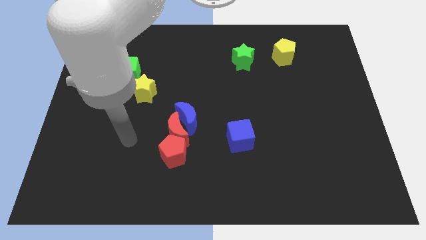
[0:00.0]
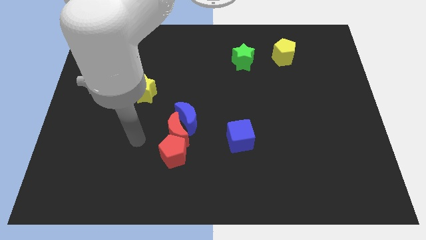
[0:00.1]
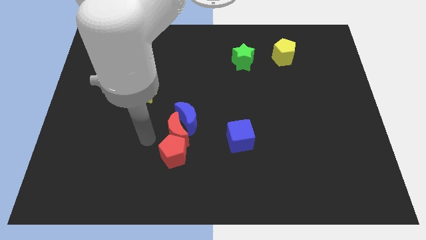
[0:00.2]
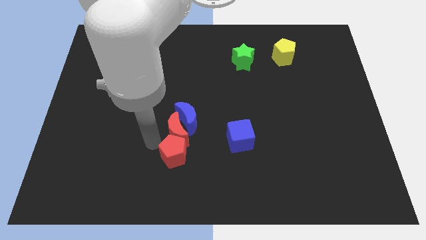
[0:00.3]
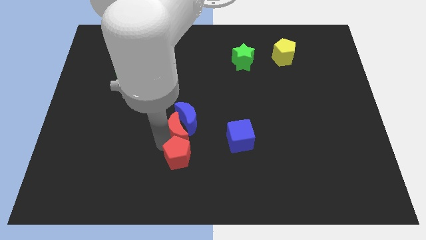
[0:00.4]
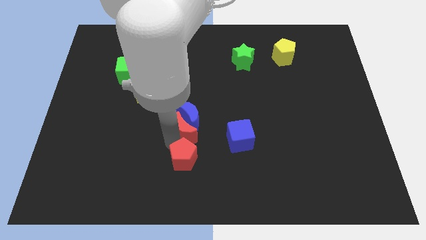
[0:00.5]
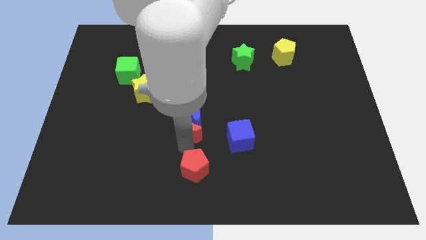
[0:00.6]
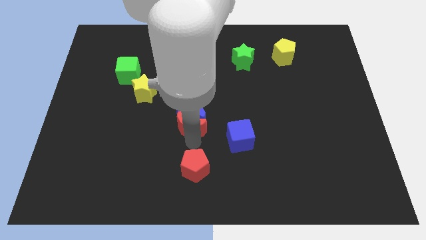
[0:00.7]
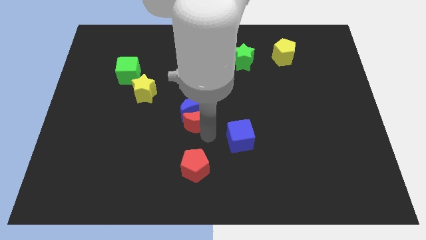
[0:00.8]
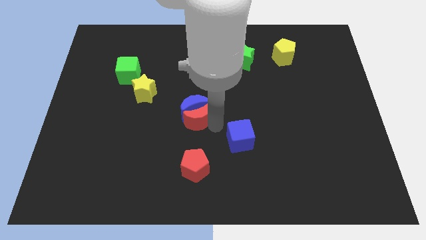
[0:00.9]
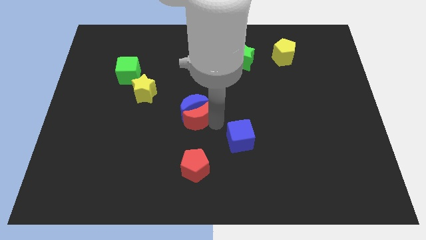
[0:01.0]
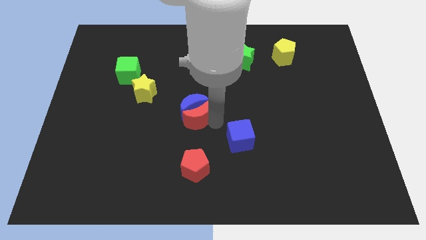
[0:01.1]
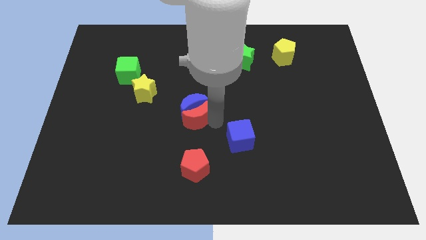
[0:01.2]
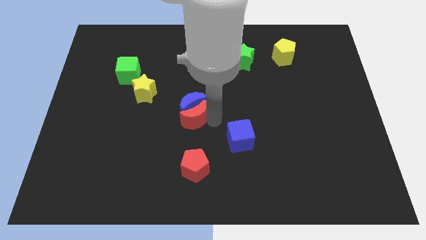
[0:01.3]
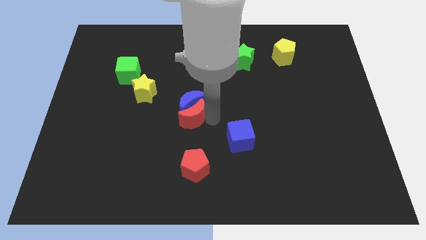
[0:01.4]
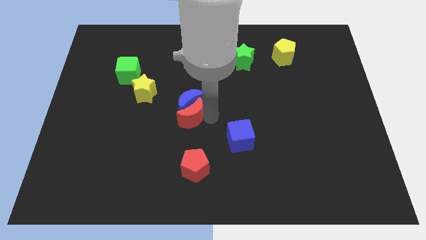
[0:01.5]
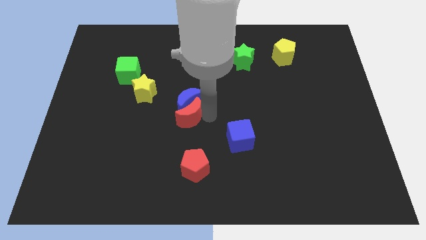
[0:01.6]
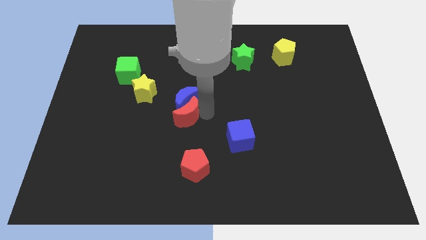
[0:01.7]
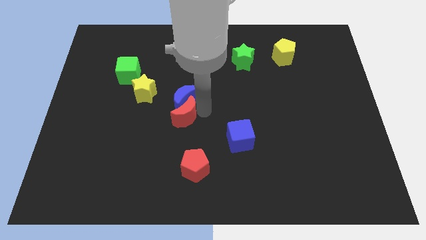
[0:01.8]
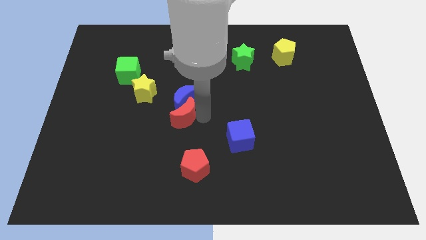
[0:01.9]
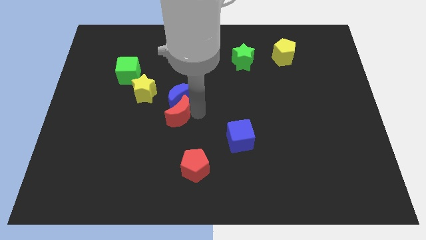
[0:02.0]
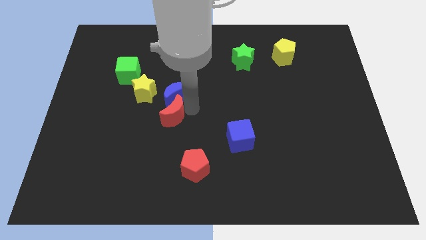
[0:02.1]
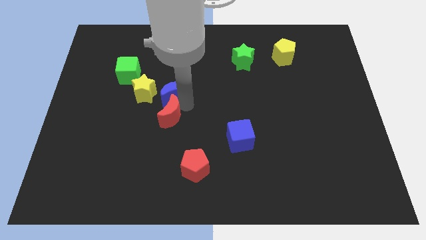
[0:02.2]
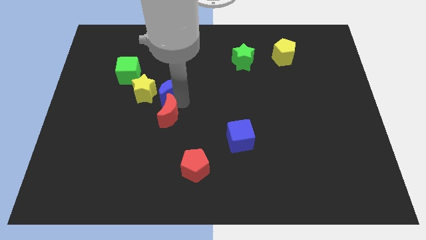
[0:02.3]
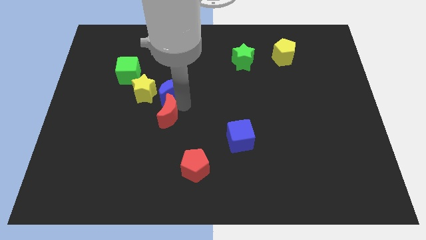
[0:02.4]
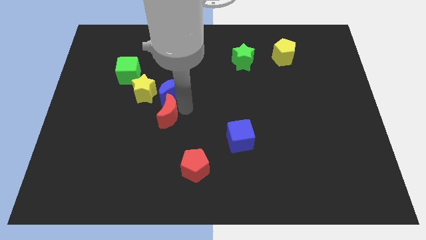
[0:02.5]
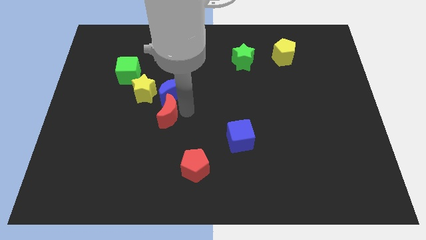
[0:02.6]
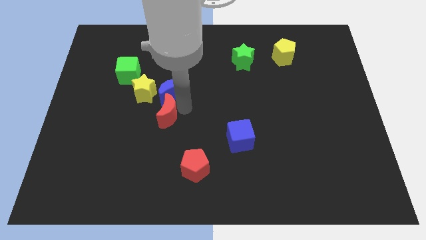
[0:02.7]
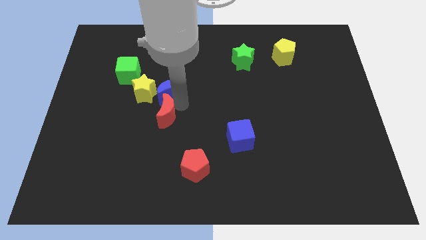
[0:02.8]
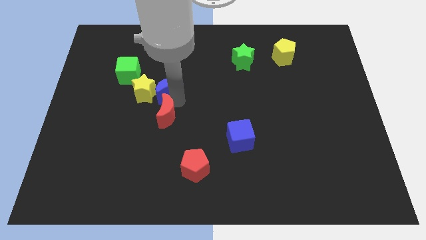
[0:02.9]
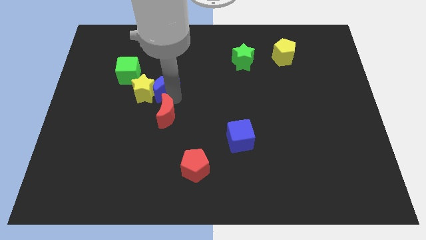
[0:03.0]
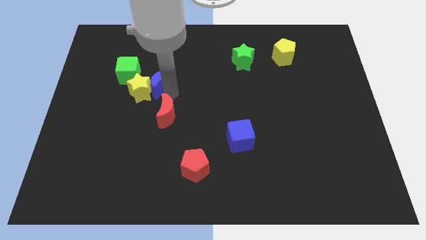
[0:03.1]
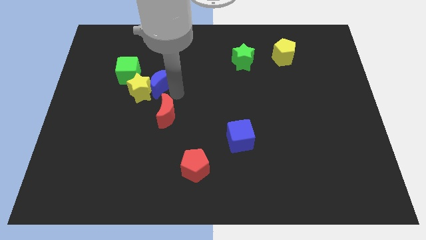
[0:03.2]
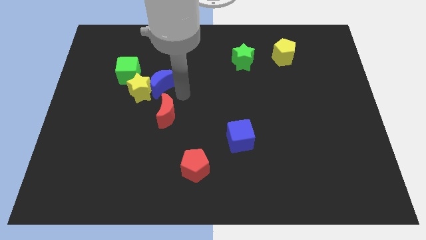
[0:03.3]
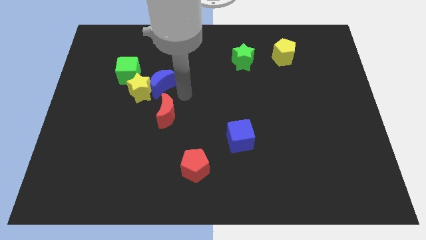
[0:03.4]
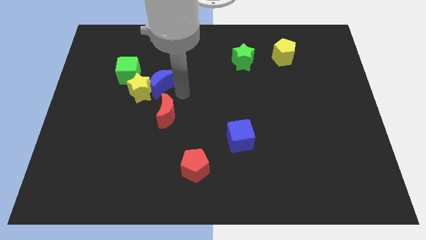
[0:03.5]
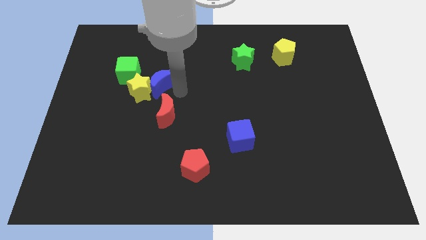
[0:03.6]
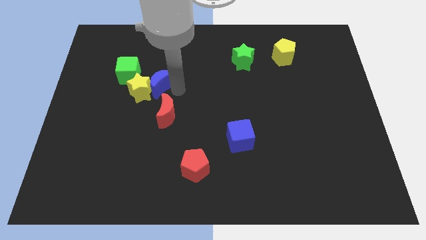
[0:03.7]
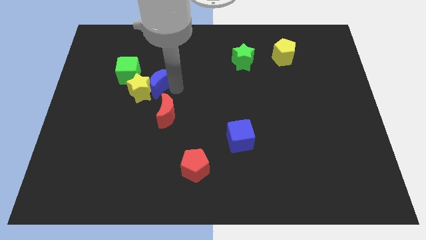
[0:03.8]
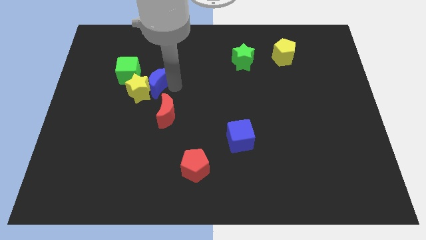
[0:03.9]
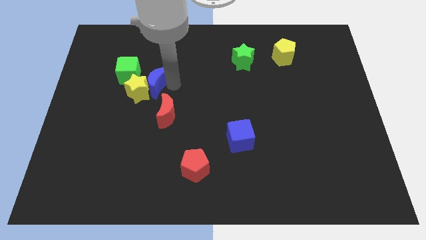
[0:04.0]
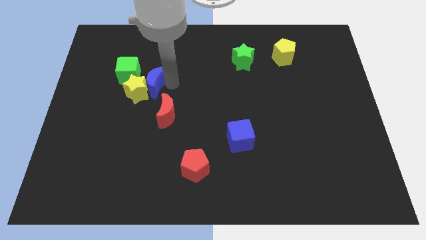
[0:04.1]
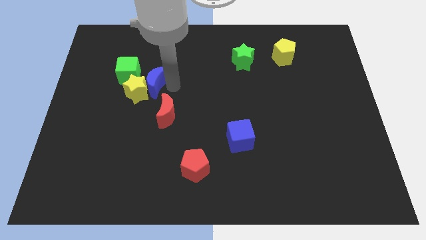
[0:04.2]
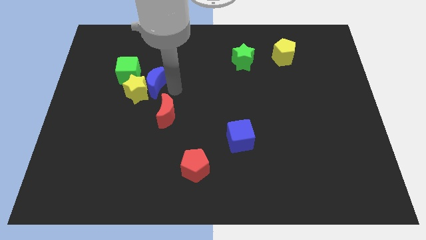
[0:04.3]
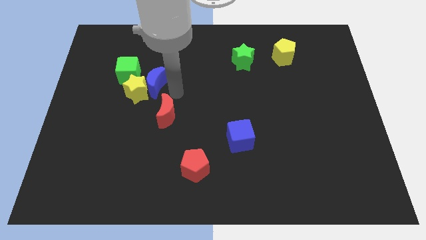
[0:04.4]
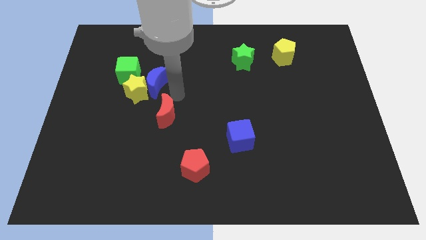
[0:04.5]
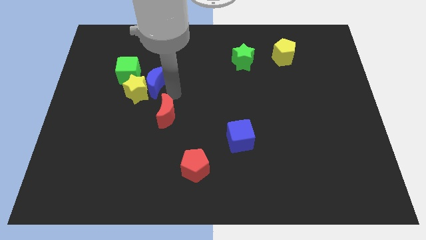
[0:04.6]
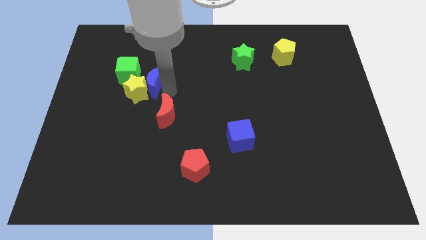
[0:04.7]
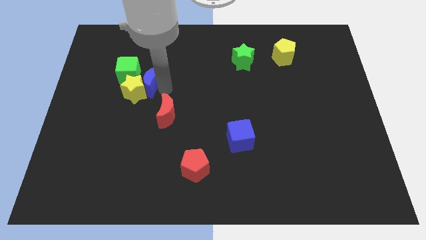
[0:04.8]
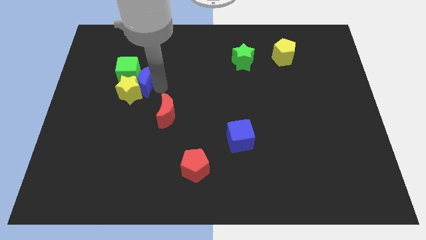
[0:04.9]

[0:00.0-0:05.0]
move the blue moon towards the green cube

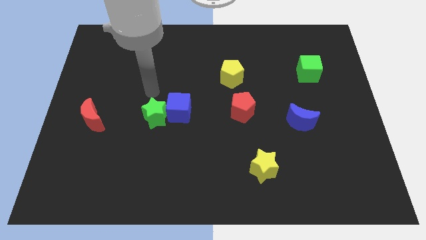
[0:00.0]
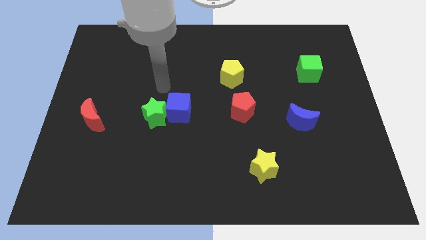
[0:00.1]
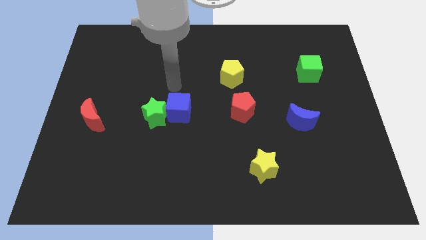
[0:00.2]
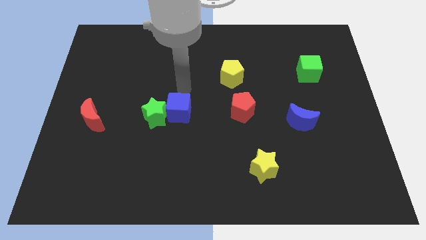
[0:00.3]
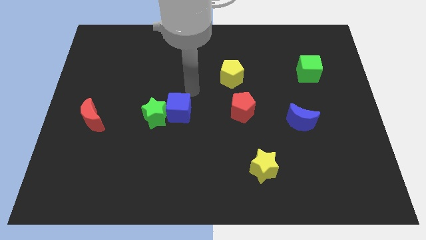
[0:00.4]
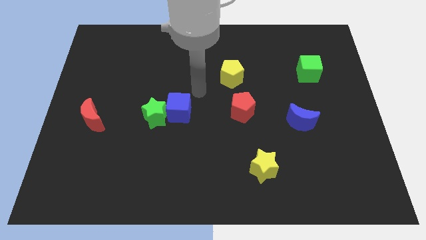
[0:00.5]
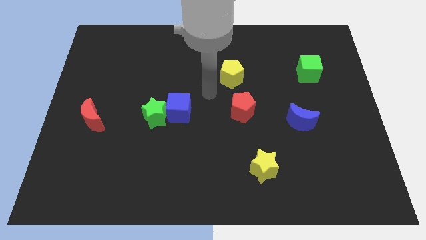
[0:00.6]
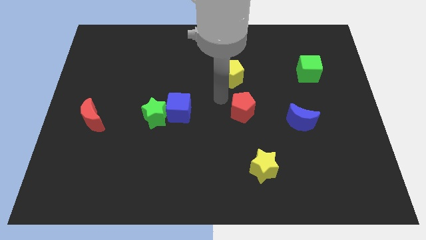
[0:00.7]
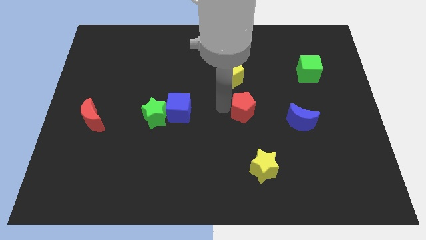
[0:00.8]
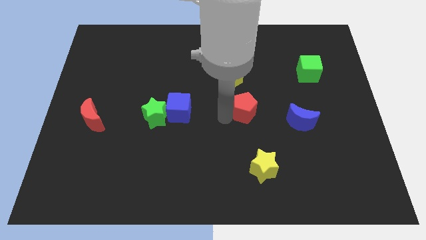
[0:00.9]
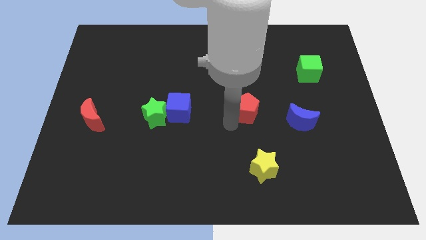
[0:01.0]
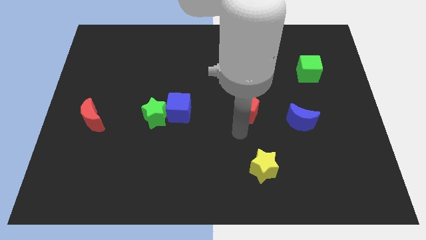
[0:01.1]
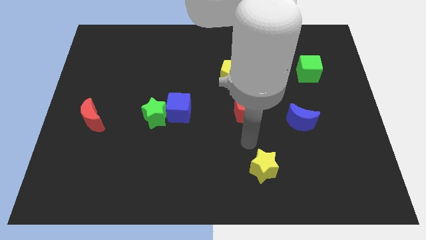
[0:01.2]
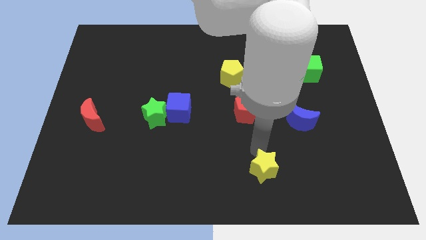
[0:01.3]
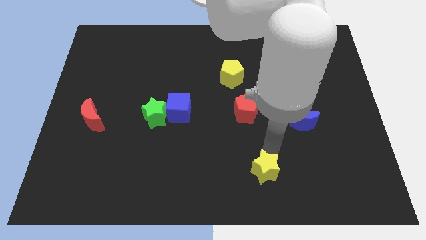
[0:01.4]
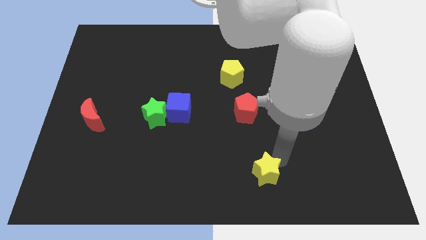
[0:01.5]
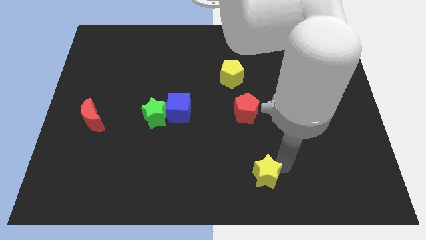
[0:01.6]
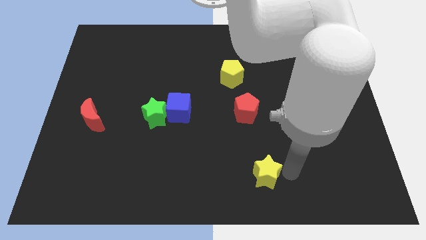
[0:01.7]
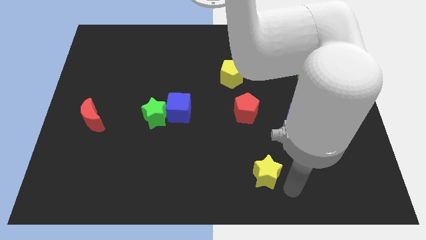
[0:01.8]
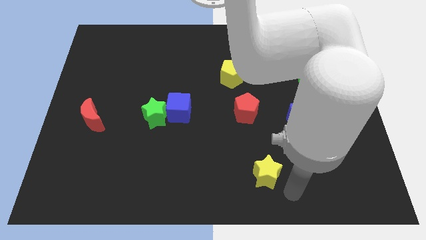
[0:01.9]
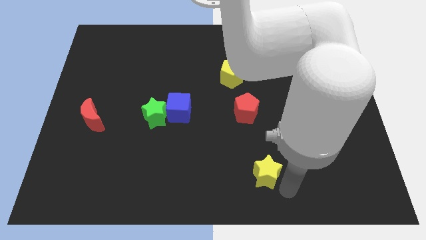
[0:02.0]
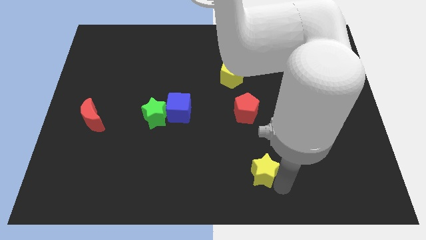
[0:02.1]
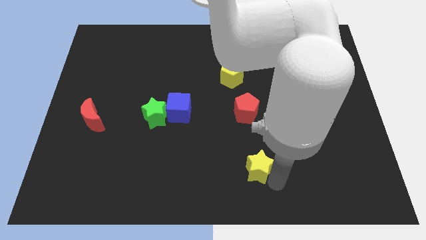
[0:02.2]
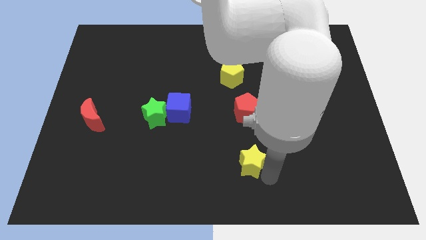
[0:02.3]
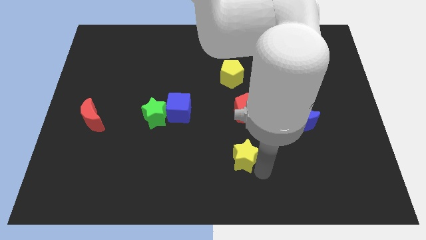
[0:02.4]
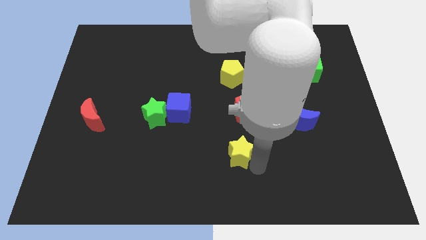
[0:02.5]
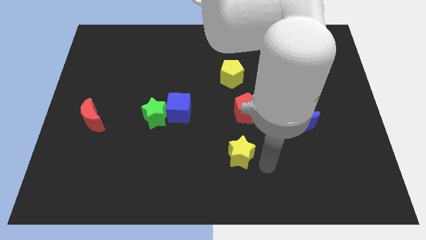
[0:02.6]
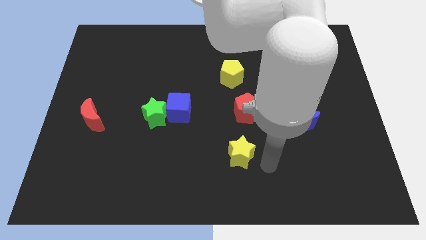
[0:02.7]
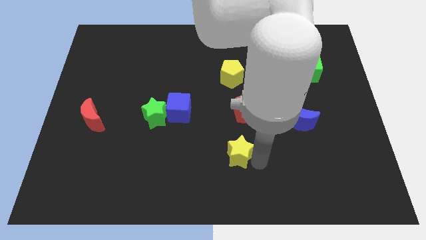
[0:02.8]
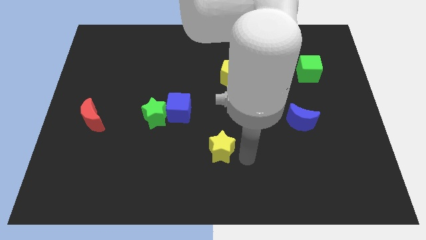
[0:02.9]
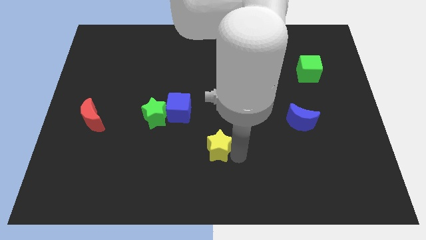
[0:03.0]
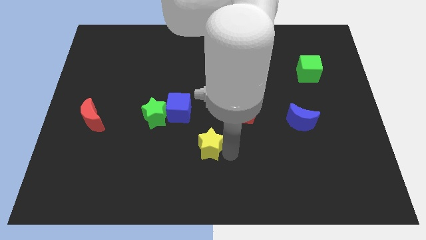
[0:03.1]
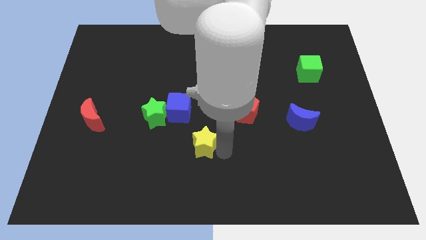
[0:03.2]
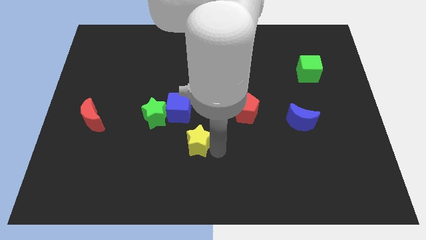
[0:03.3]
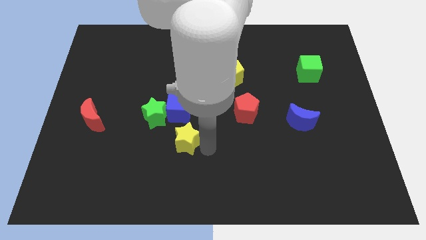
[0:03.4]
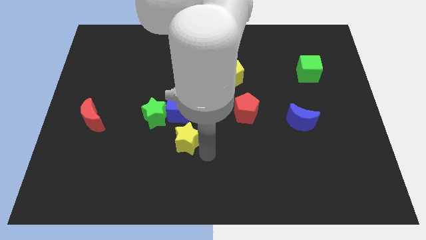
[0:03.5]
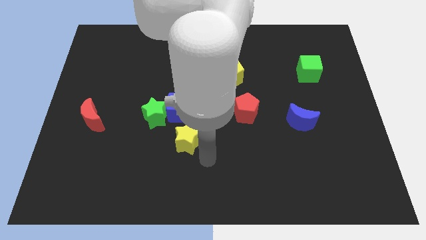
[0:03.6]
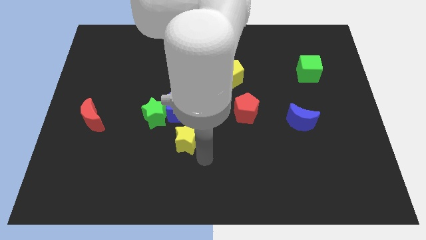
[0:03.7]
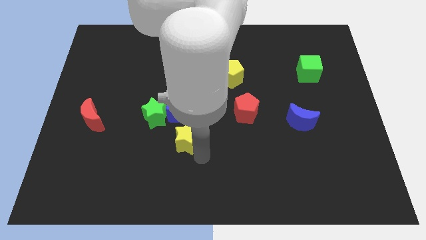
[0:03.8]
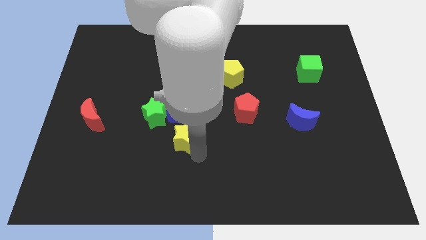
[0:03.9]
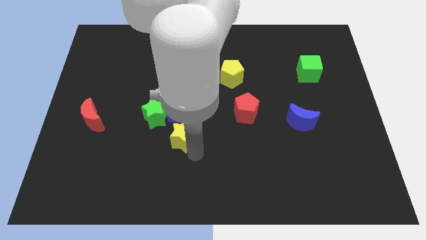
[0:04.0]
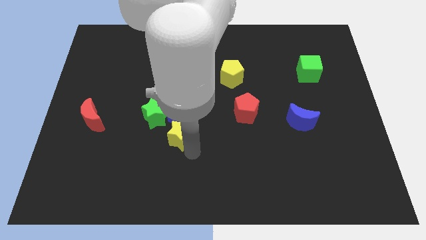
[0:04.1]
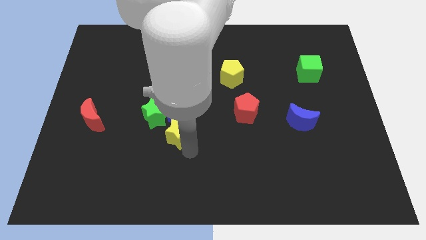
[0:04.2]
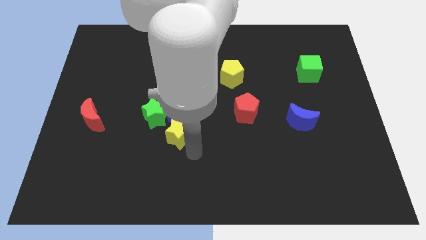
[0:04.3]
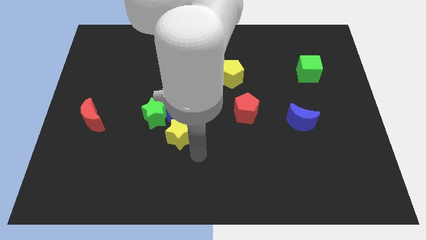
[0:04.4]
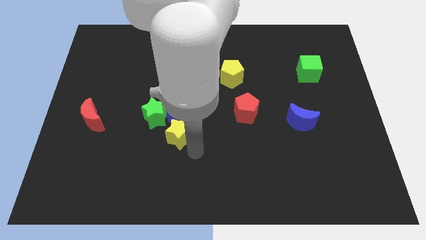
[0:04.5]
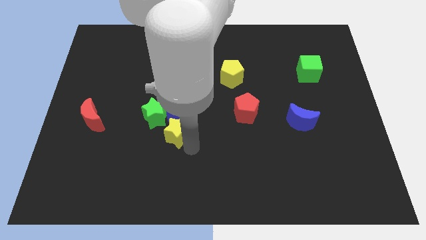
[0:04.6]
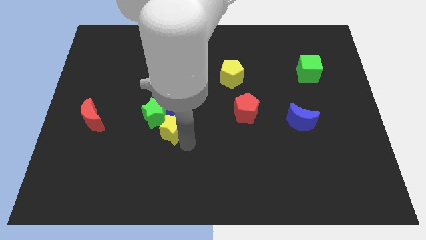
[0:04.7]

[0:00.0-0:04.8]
move the yellow star to the green star
